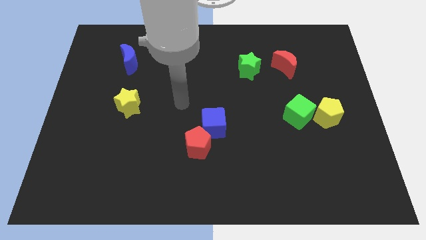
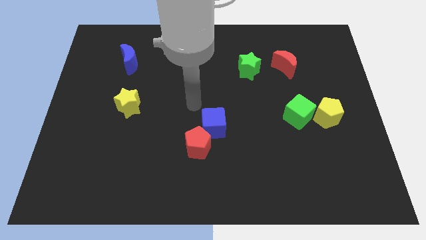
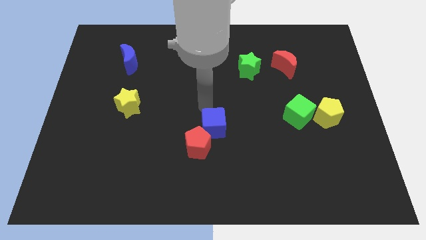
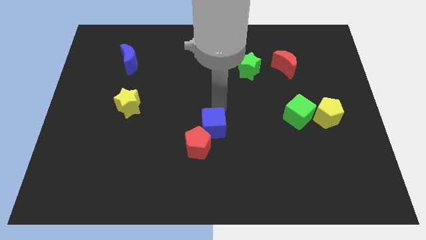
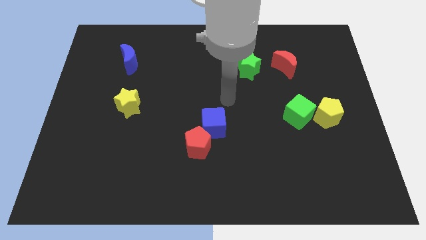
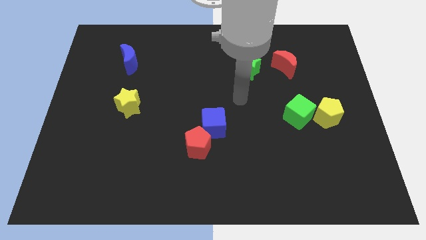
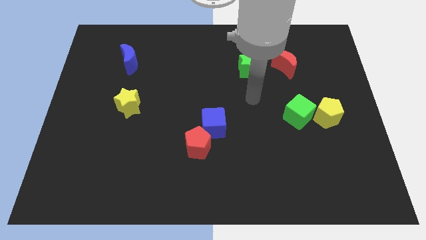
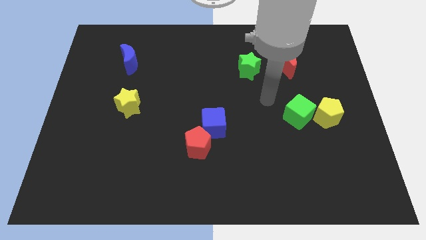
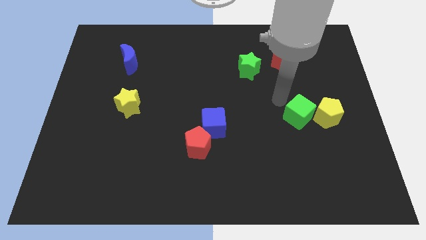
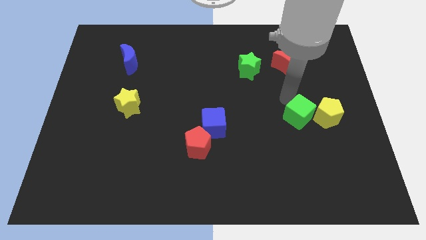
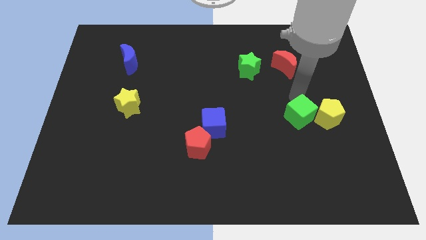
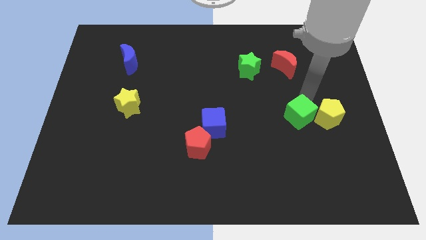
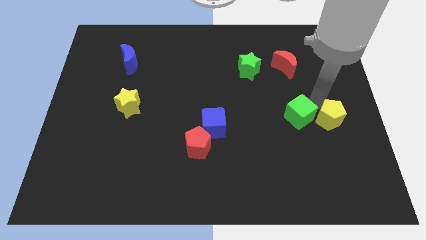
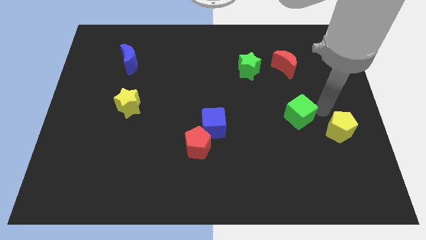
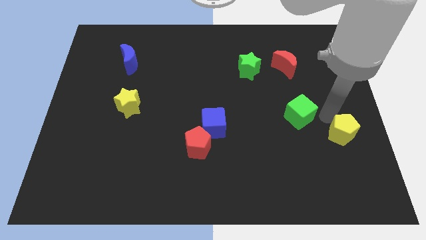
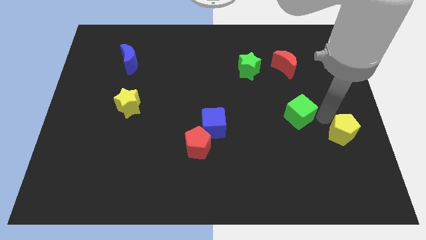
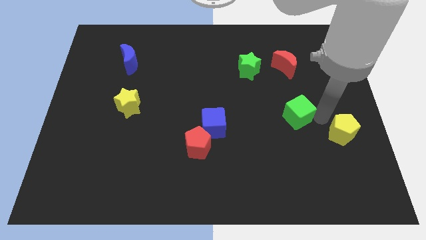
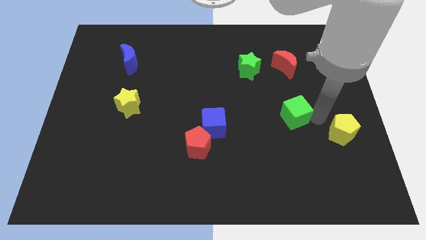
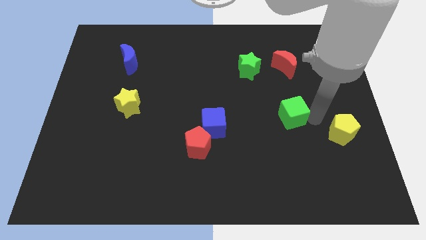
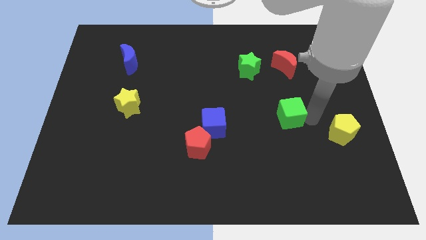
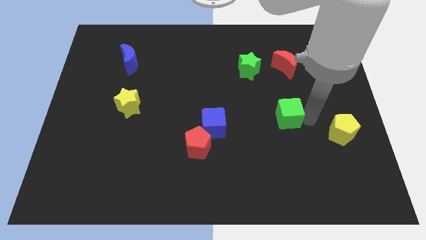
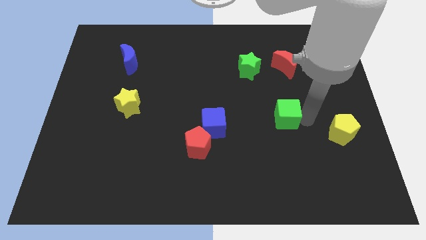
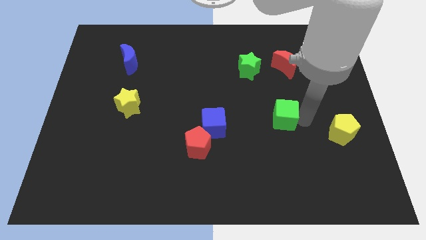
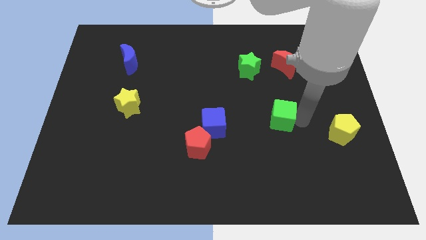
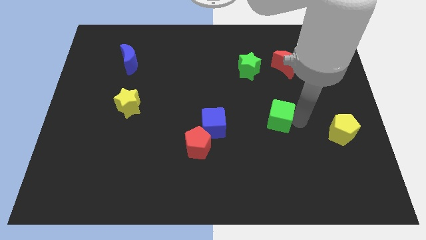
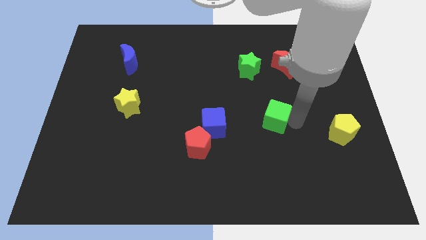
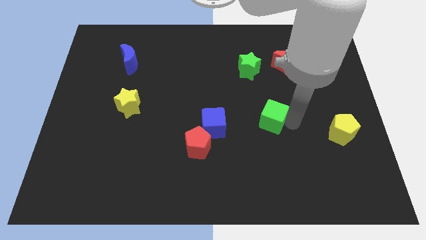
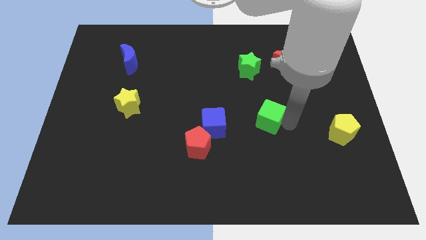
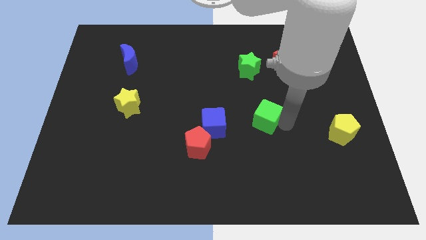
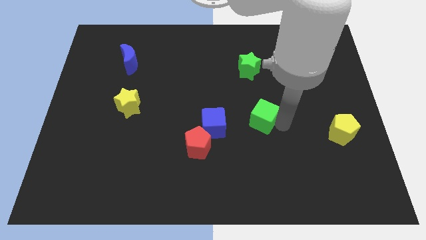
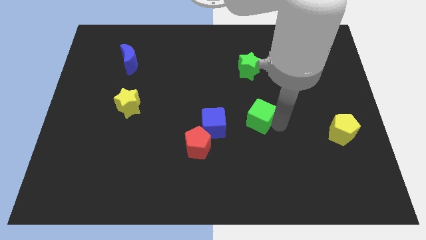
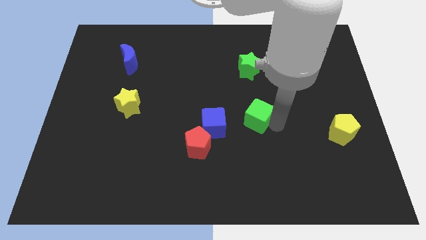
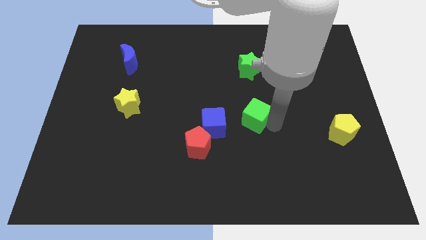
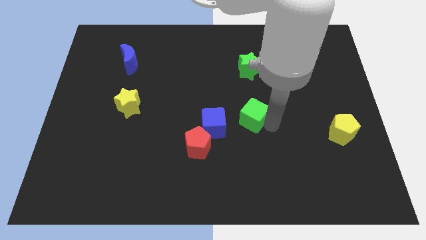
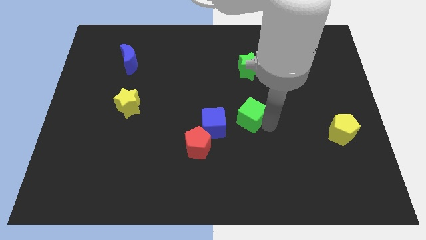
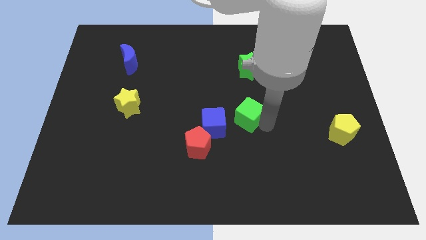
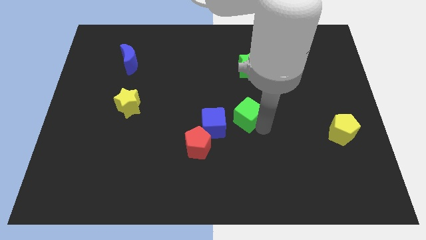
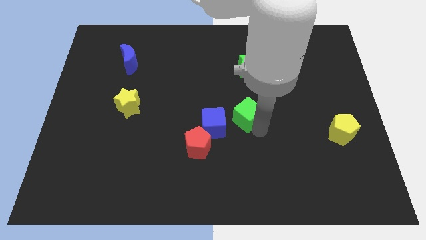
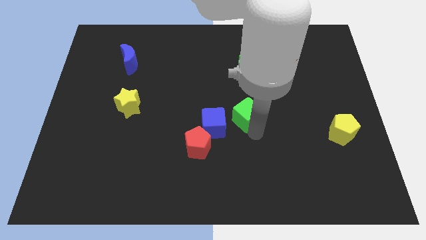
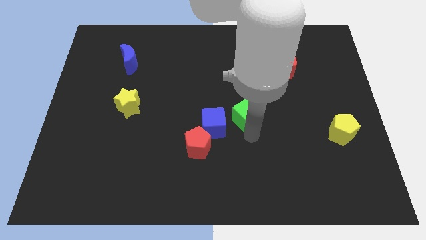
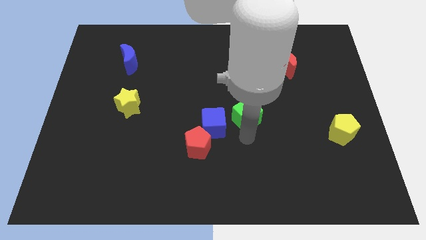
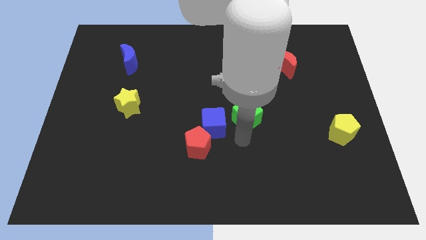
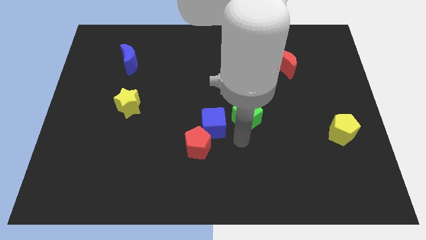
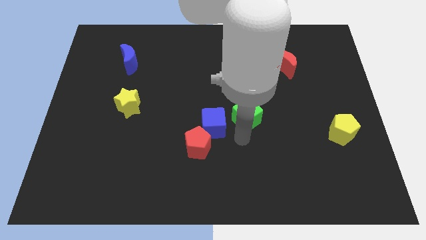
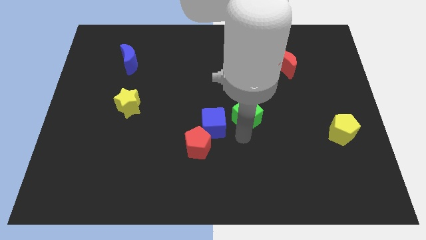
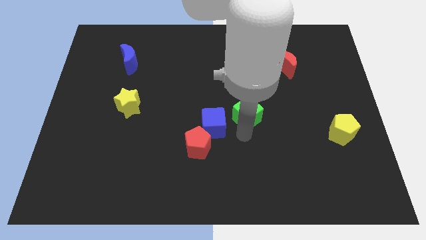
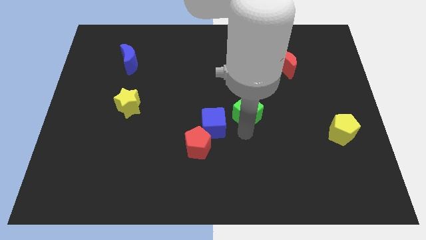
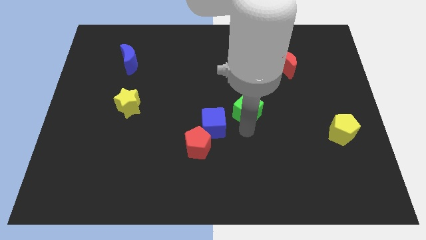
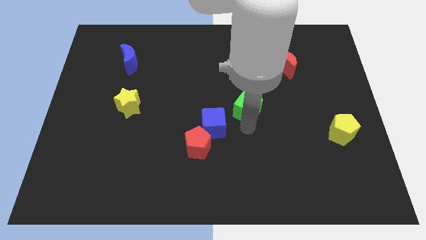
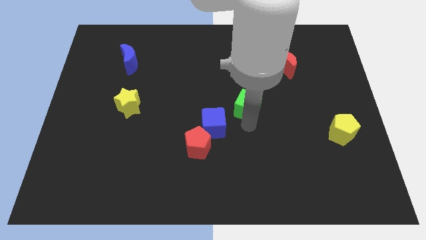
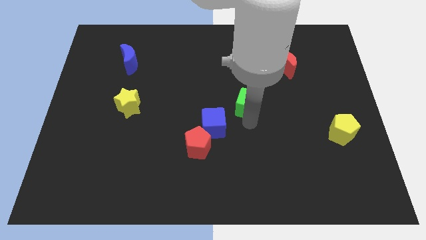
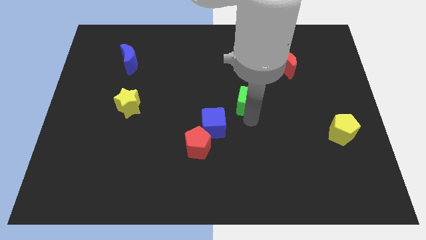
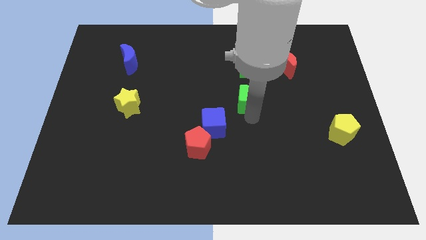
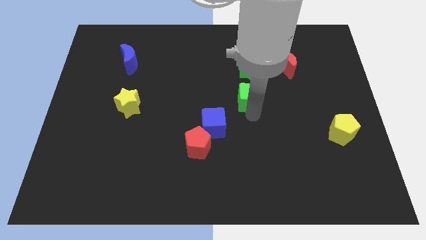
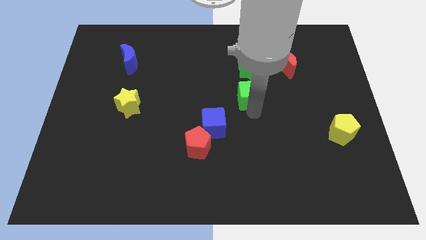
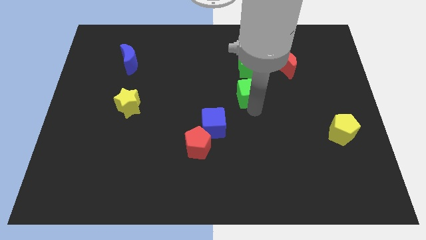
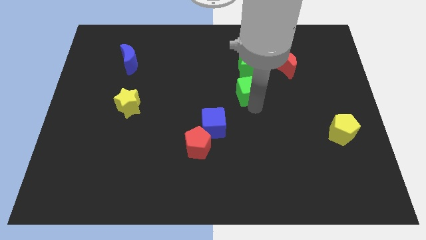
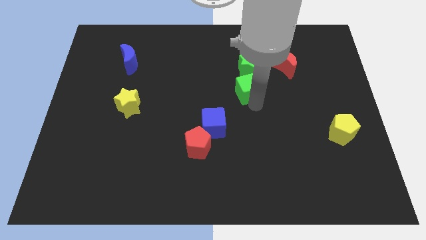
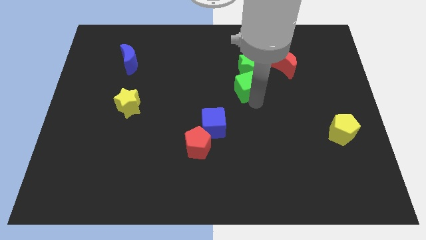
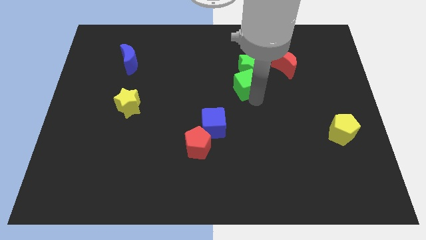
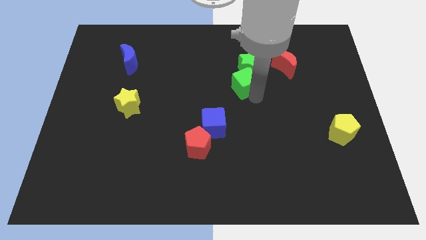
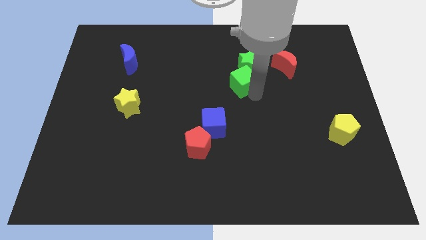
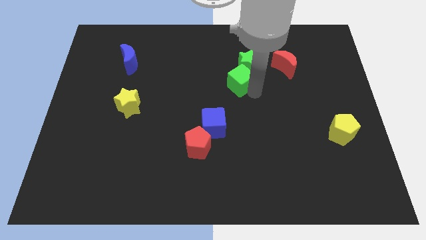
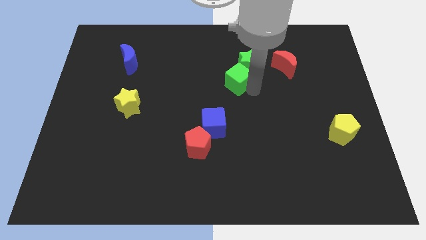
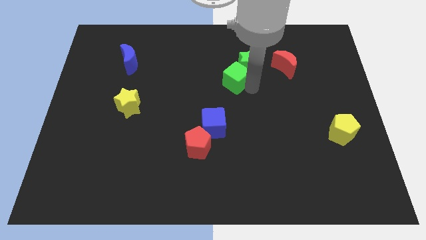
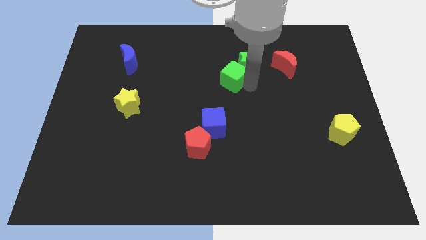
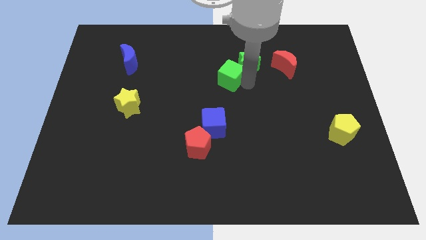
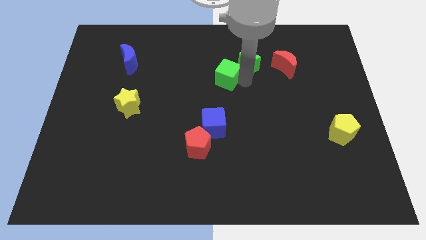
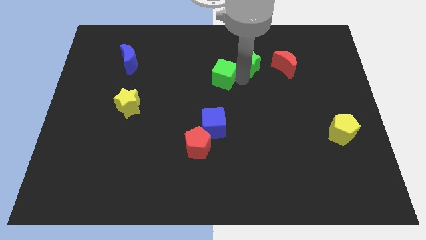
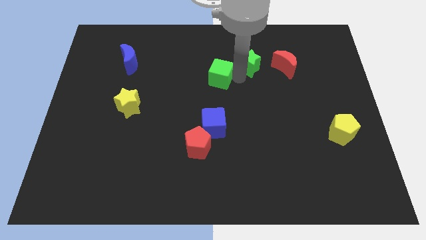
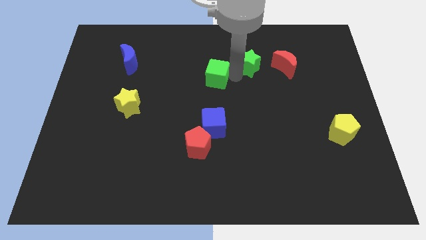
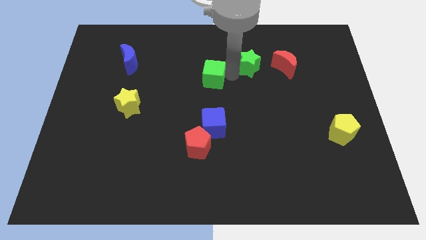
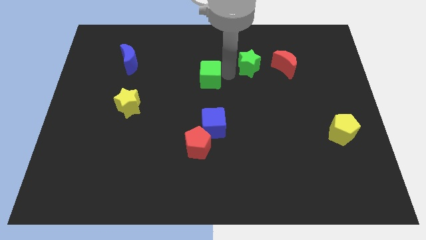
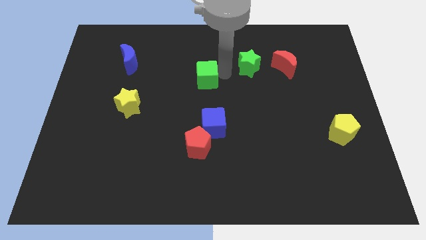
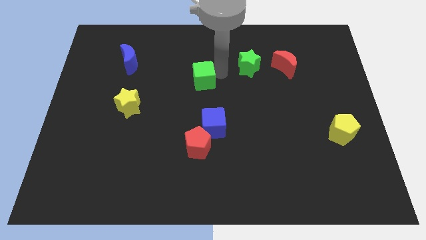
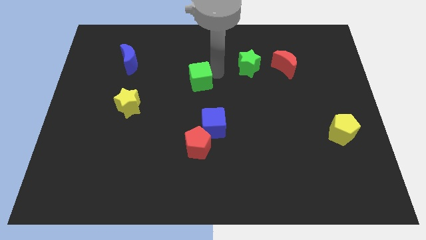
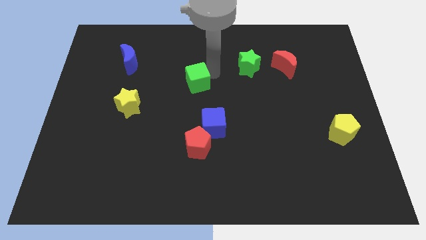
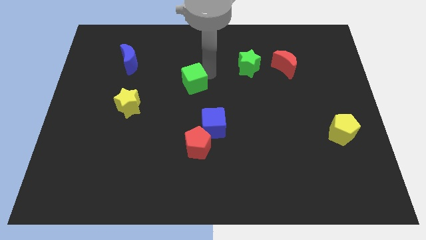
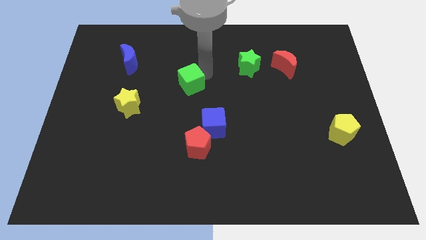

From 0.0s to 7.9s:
push the green cube to the left

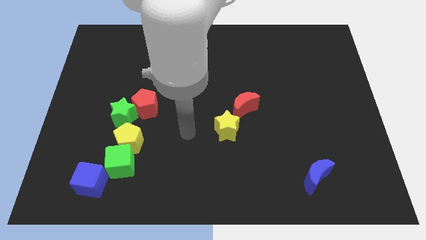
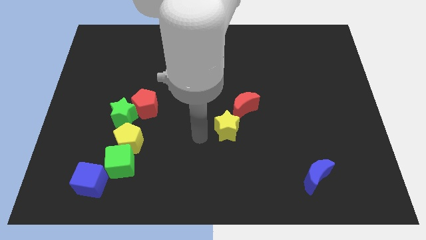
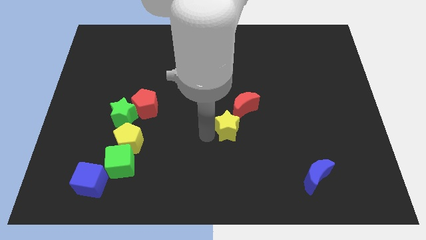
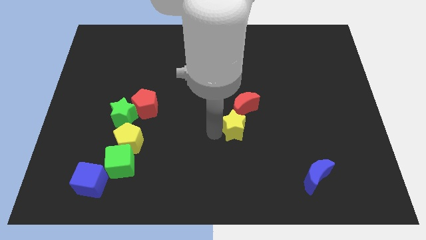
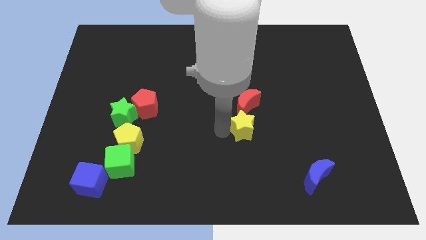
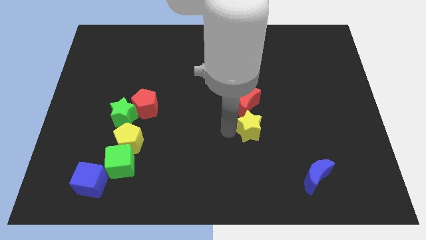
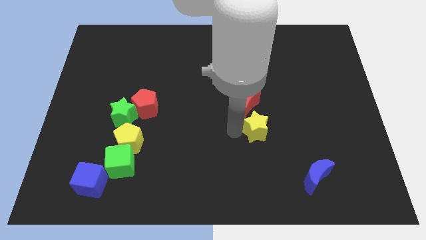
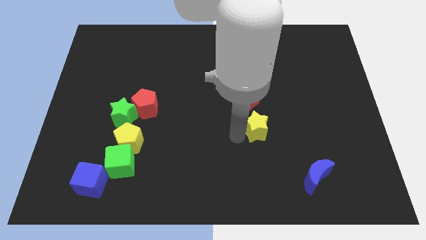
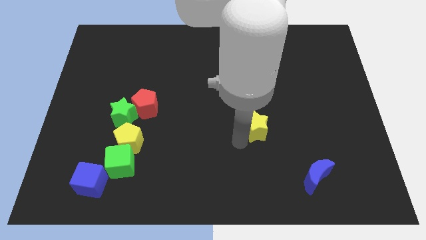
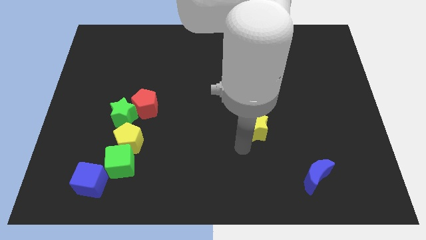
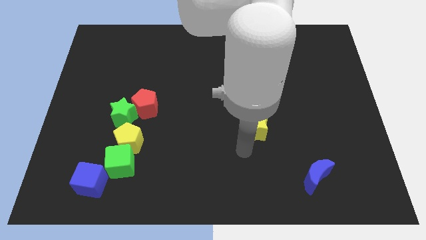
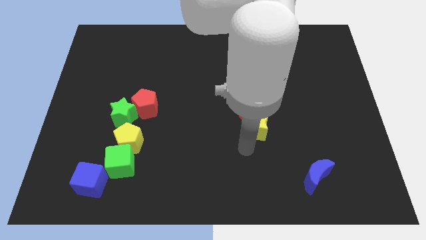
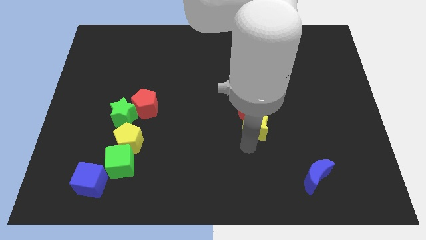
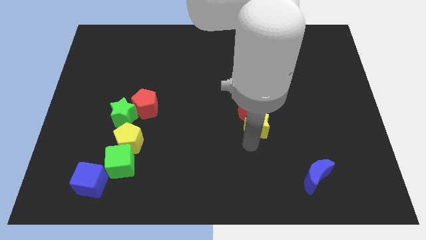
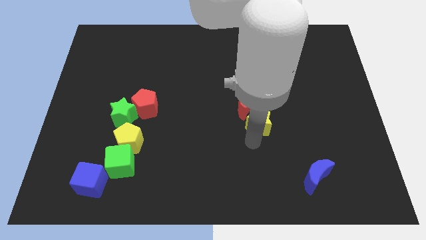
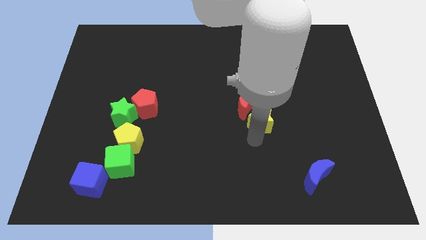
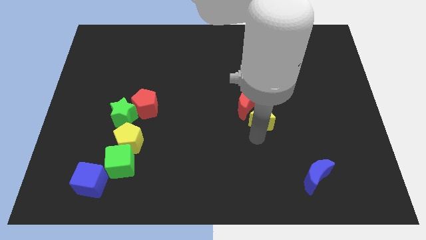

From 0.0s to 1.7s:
slightly slide the yellow star upwards and to the right
